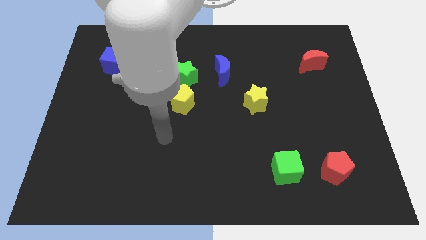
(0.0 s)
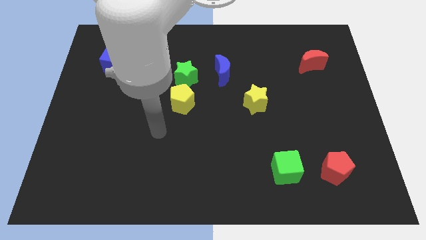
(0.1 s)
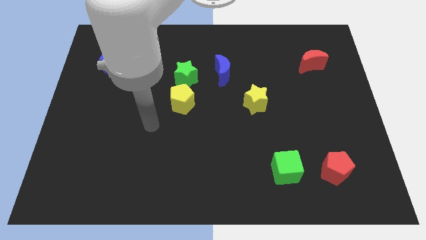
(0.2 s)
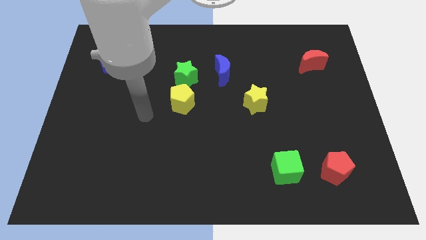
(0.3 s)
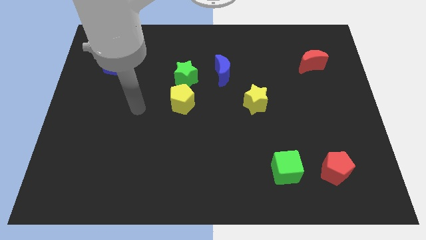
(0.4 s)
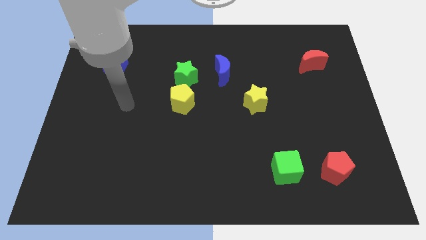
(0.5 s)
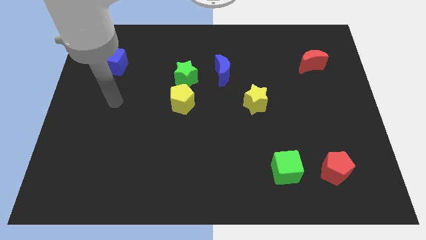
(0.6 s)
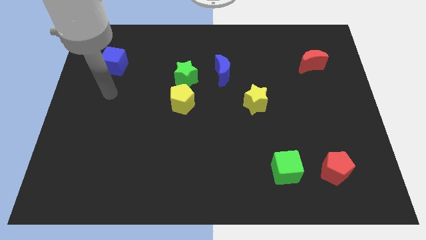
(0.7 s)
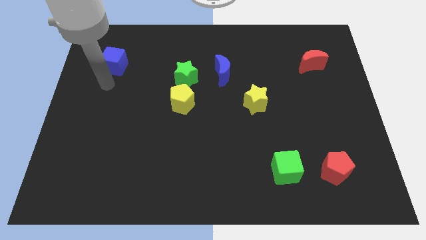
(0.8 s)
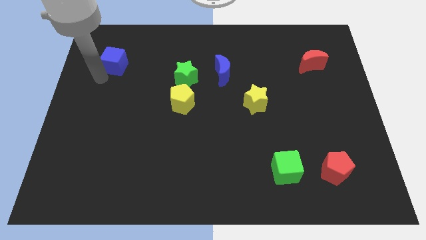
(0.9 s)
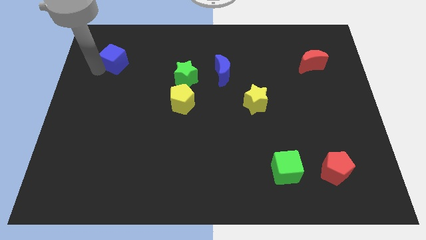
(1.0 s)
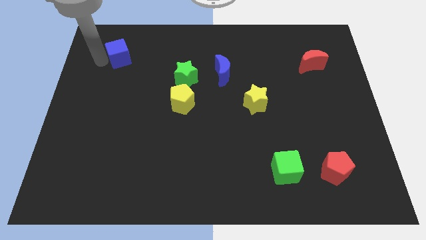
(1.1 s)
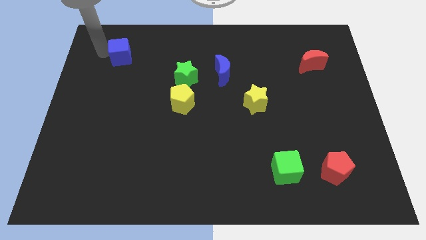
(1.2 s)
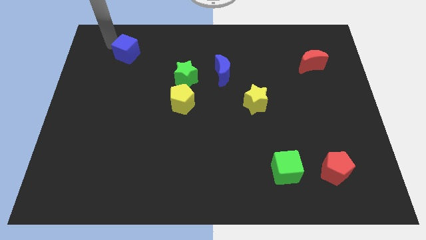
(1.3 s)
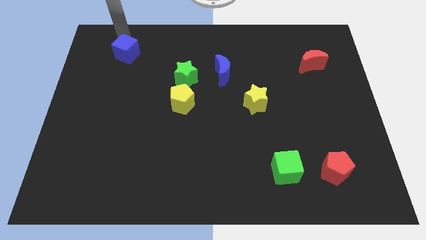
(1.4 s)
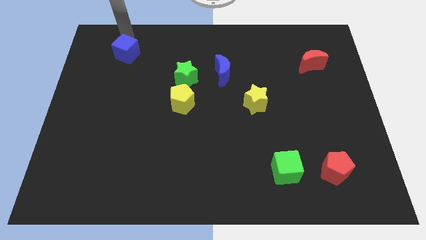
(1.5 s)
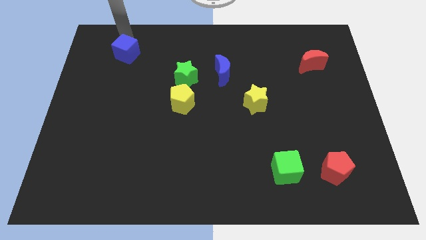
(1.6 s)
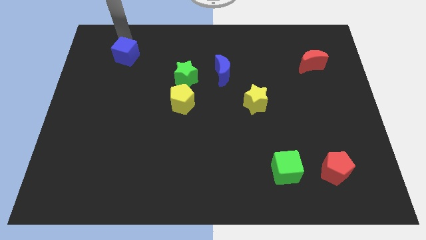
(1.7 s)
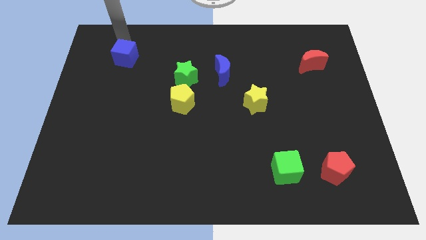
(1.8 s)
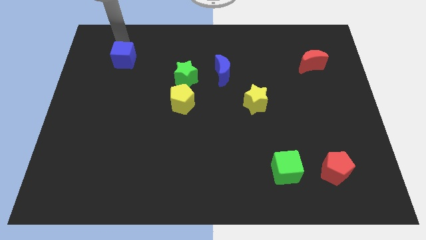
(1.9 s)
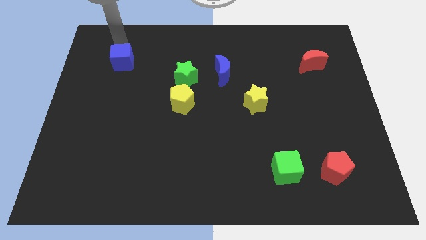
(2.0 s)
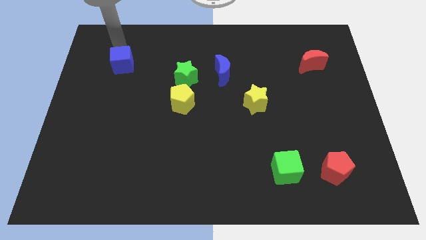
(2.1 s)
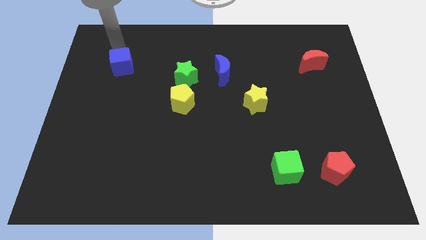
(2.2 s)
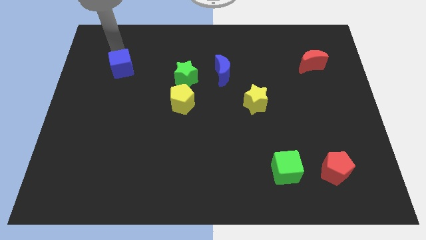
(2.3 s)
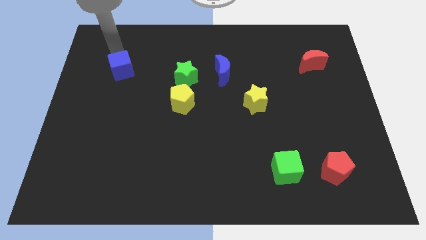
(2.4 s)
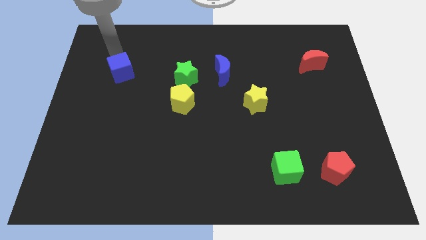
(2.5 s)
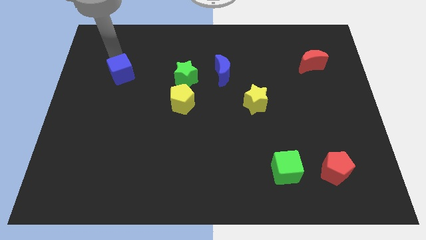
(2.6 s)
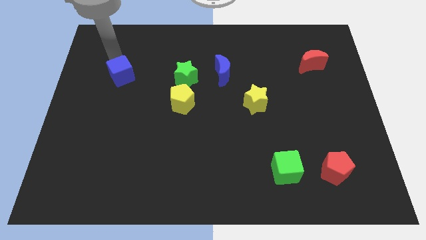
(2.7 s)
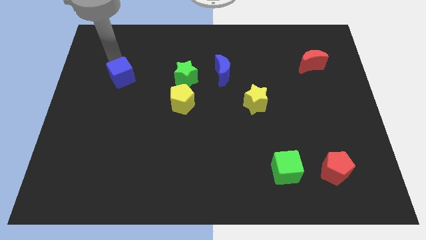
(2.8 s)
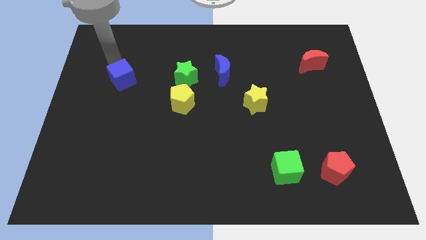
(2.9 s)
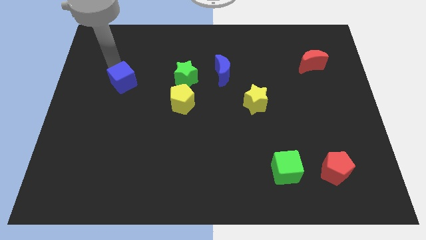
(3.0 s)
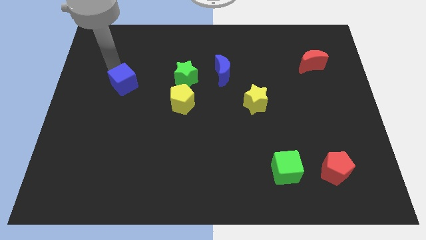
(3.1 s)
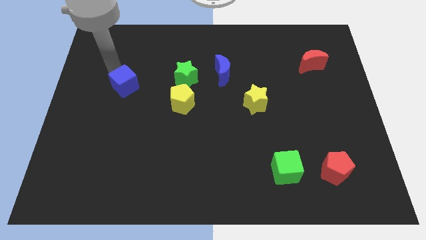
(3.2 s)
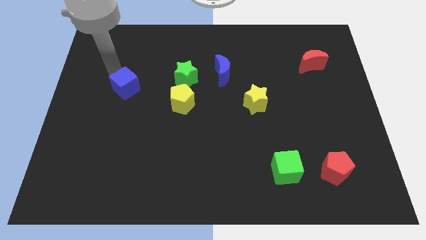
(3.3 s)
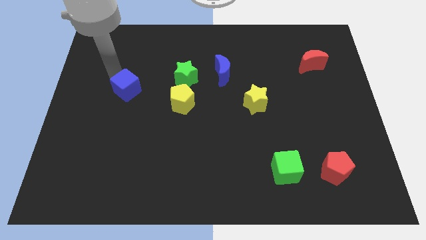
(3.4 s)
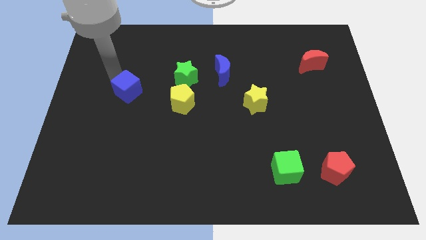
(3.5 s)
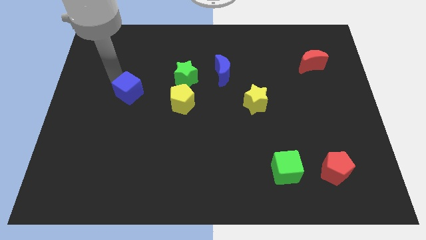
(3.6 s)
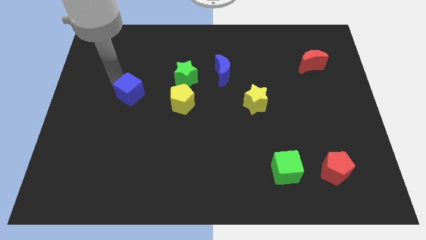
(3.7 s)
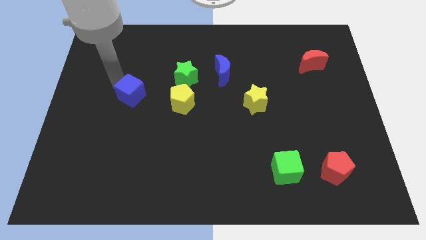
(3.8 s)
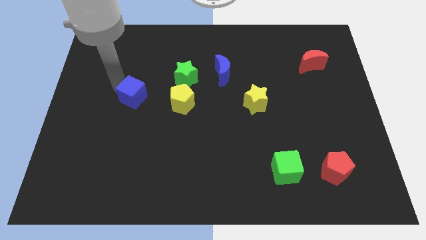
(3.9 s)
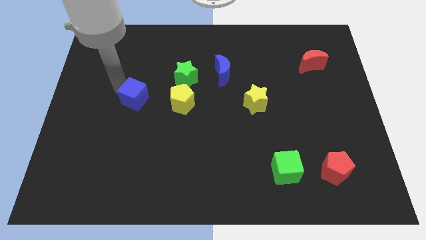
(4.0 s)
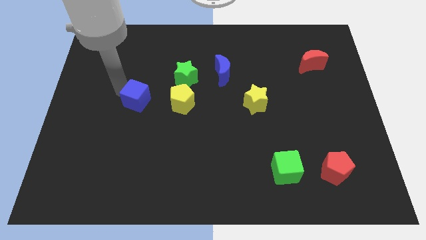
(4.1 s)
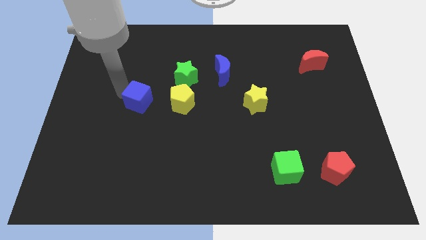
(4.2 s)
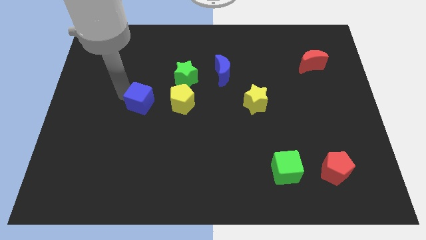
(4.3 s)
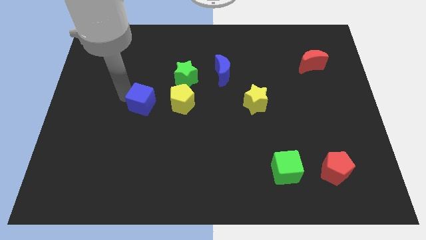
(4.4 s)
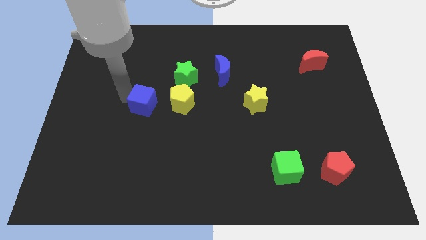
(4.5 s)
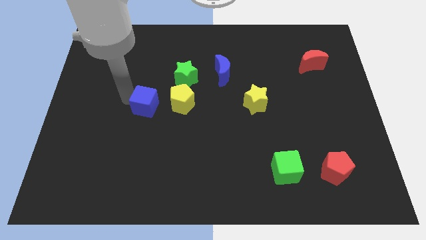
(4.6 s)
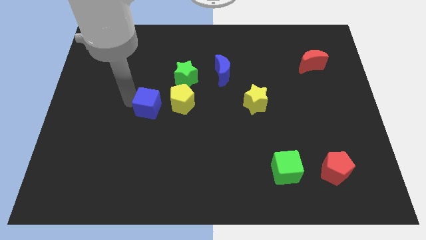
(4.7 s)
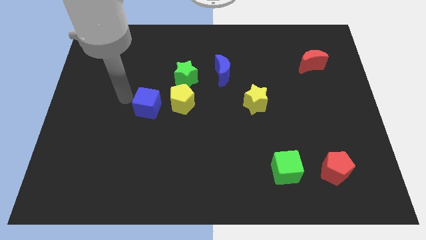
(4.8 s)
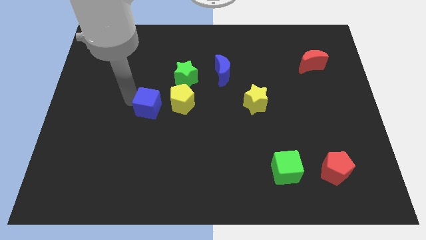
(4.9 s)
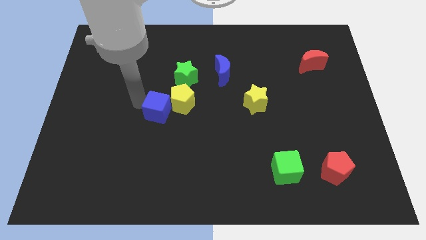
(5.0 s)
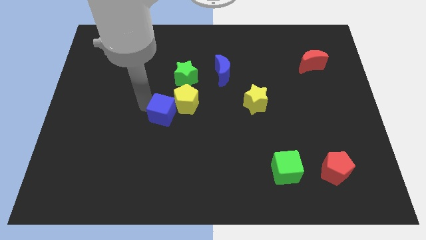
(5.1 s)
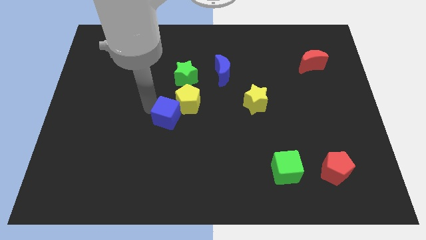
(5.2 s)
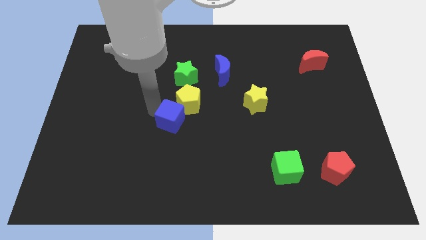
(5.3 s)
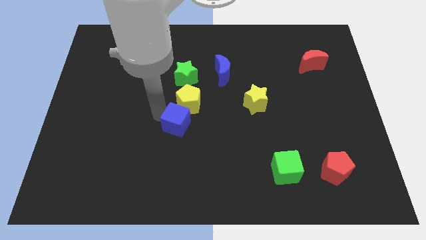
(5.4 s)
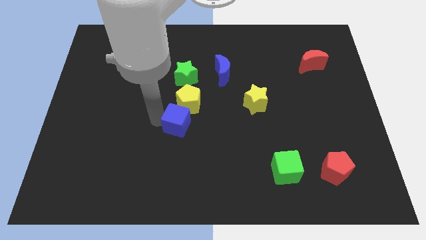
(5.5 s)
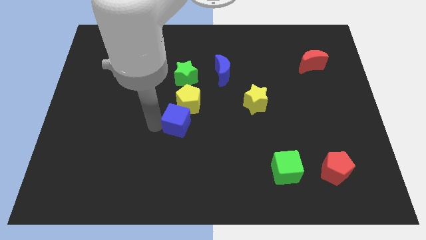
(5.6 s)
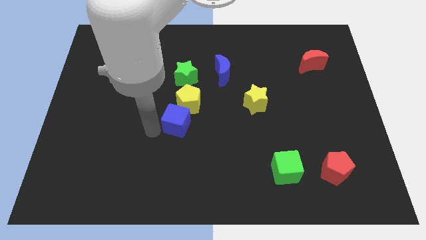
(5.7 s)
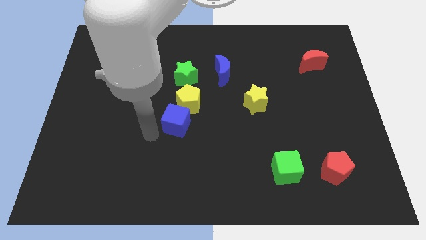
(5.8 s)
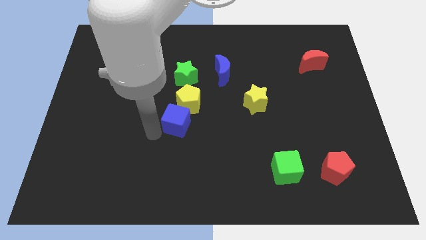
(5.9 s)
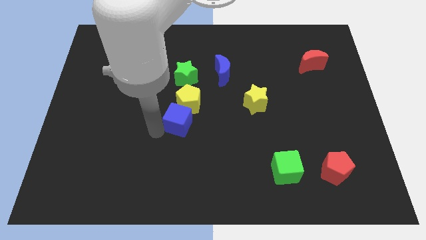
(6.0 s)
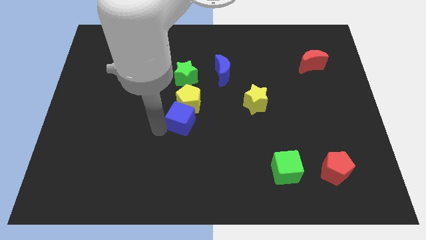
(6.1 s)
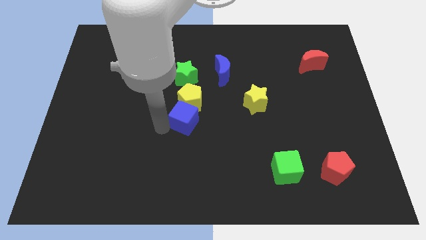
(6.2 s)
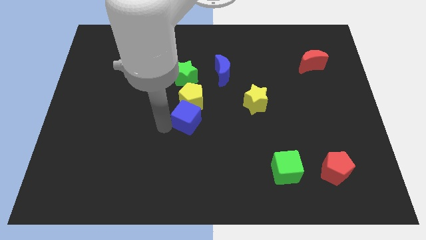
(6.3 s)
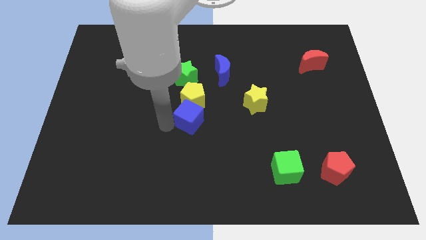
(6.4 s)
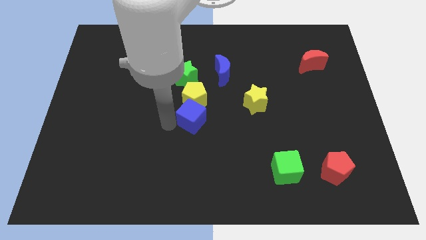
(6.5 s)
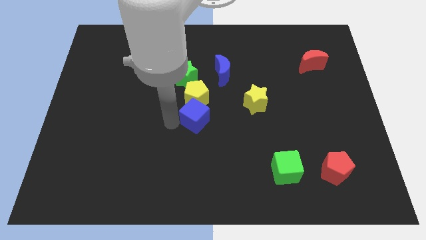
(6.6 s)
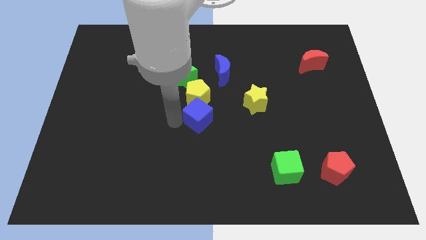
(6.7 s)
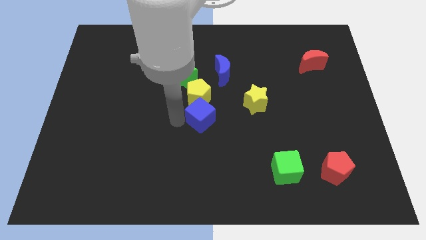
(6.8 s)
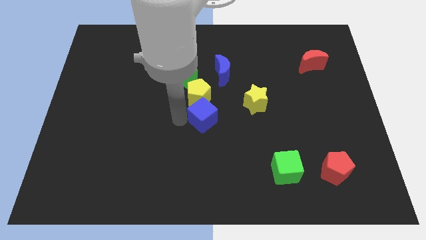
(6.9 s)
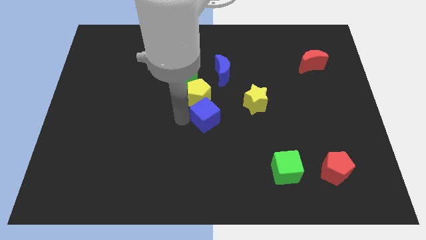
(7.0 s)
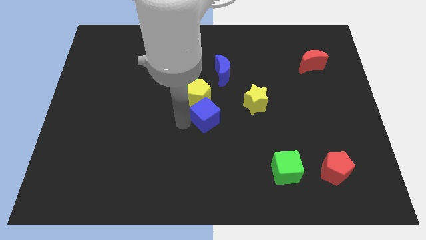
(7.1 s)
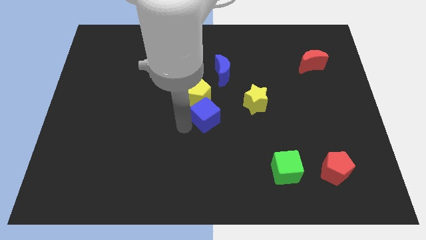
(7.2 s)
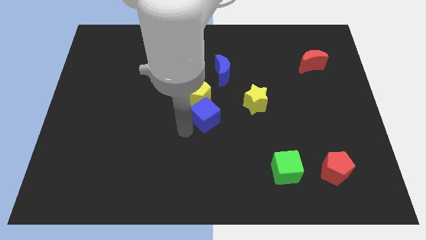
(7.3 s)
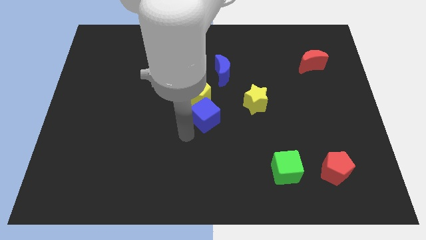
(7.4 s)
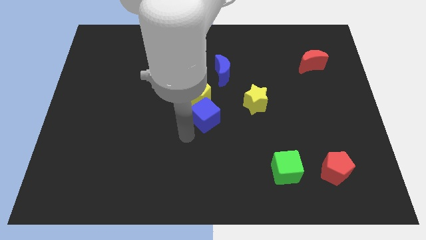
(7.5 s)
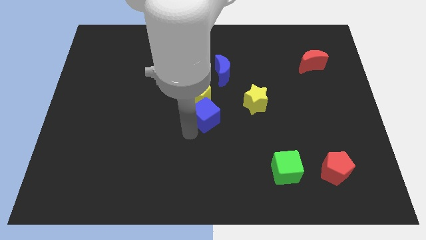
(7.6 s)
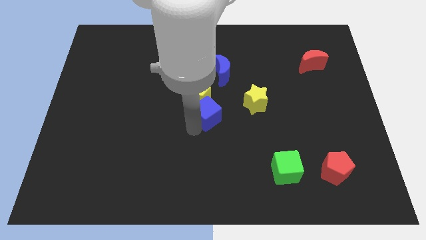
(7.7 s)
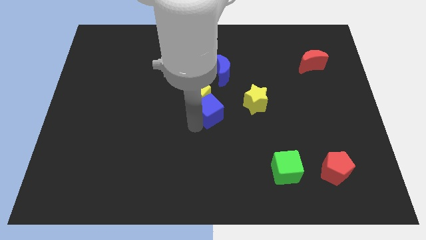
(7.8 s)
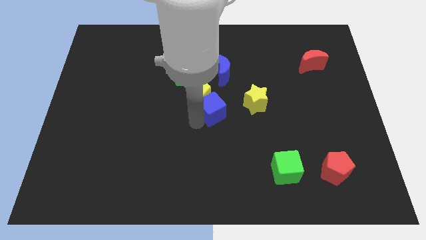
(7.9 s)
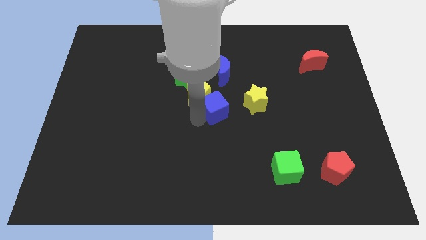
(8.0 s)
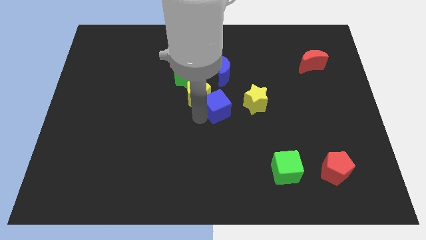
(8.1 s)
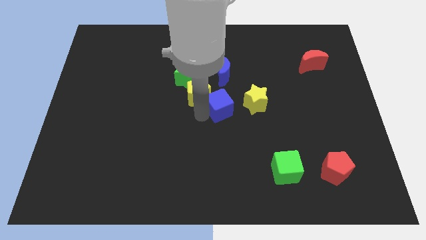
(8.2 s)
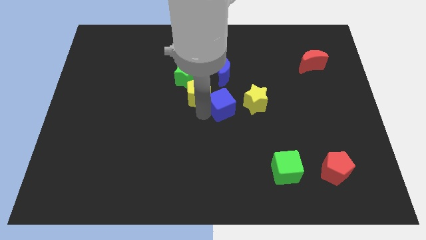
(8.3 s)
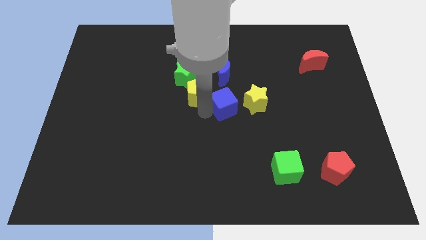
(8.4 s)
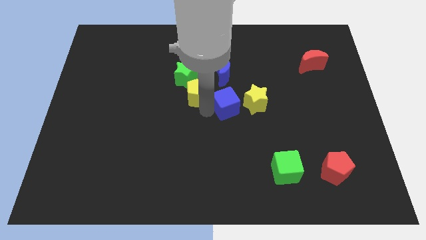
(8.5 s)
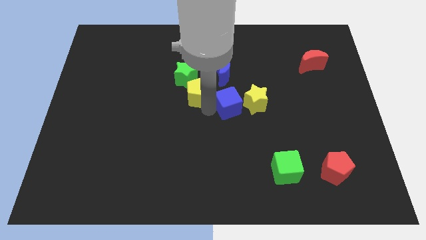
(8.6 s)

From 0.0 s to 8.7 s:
move the blue cube towards the yellow star
